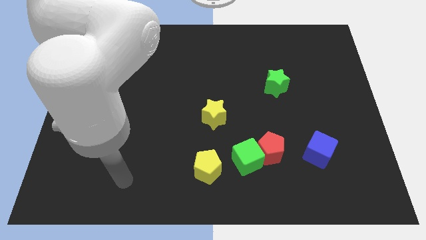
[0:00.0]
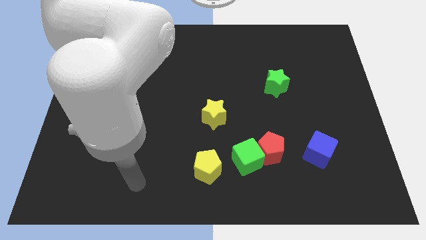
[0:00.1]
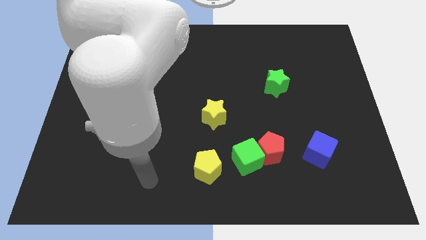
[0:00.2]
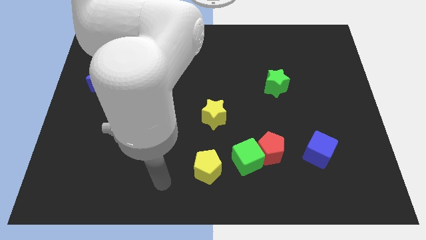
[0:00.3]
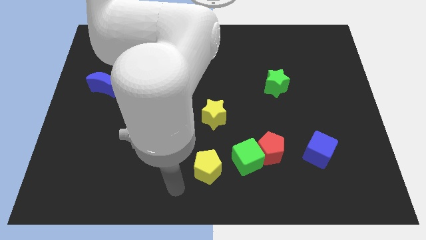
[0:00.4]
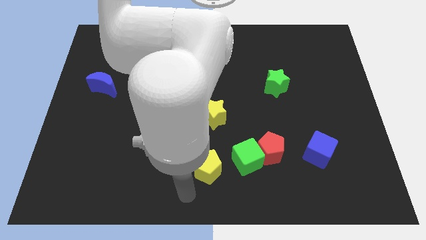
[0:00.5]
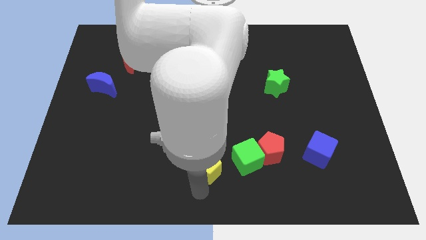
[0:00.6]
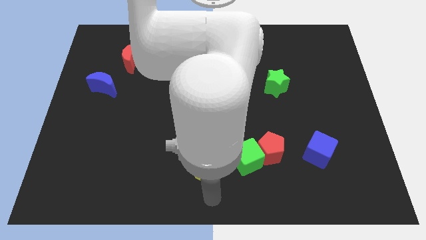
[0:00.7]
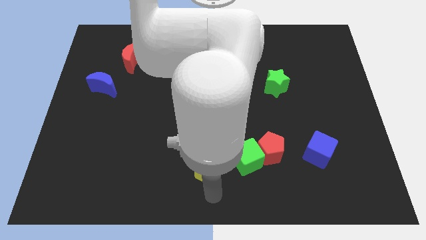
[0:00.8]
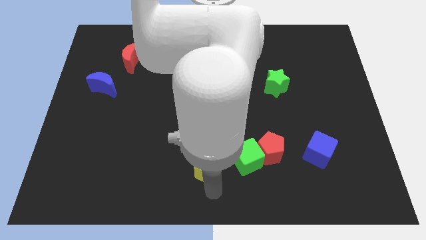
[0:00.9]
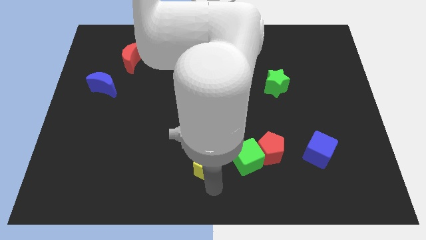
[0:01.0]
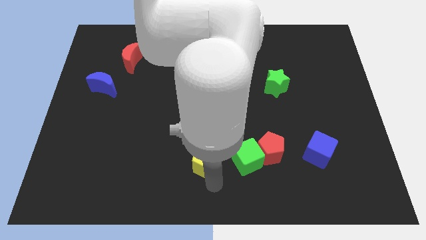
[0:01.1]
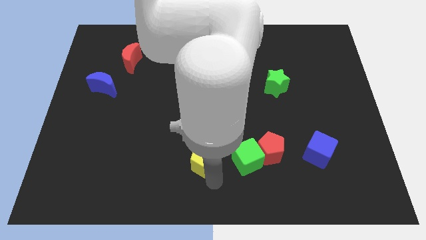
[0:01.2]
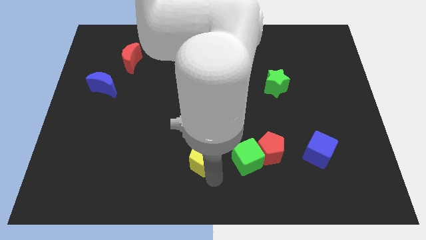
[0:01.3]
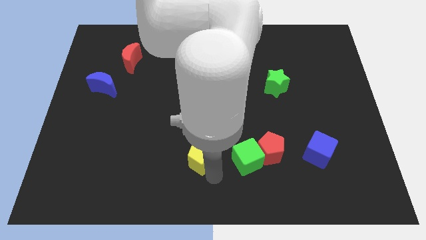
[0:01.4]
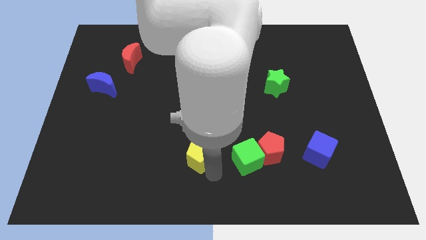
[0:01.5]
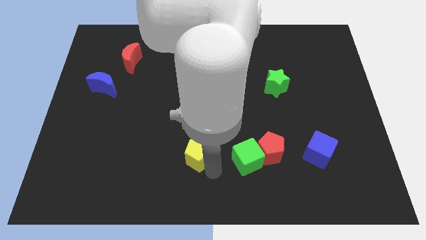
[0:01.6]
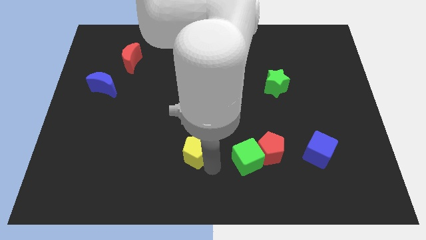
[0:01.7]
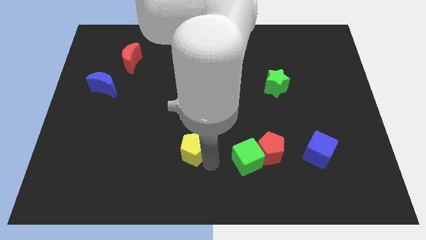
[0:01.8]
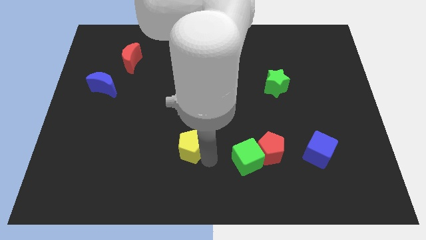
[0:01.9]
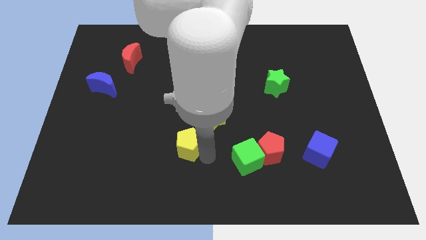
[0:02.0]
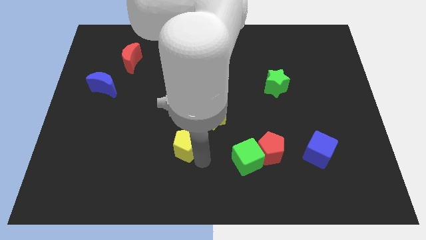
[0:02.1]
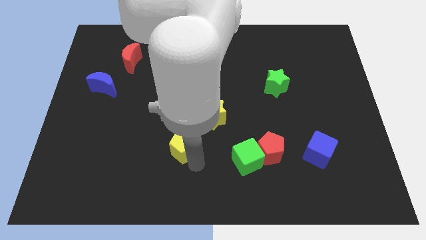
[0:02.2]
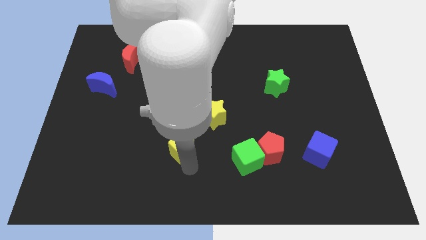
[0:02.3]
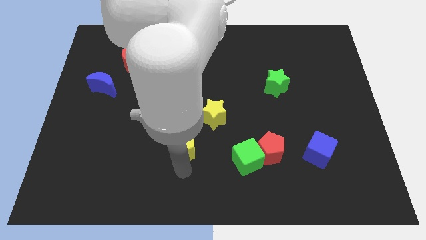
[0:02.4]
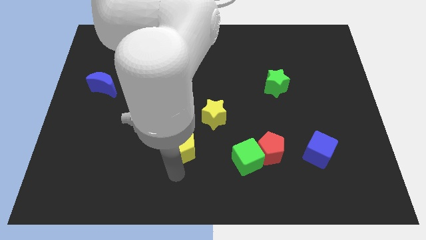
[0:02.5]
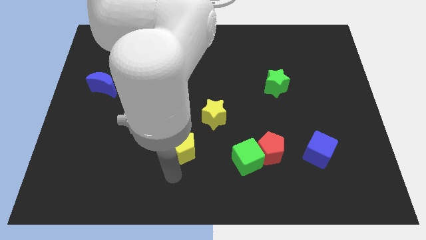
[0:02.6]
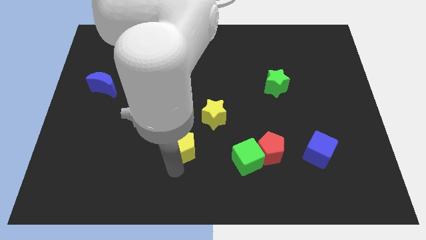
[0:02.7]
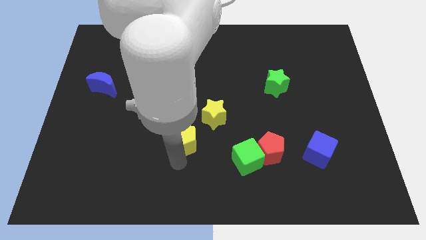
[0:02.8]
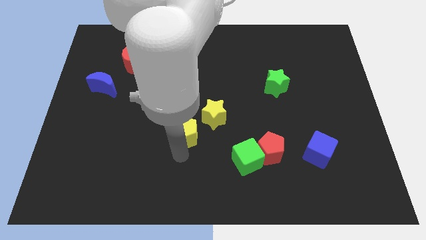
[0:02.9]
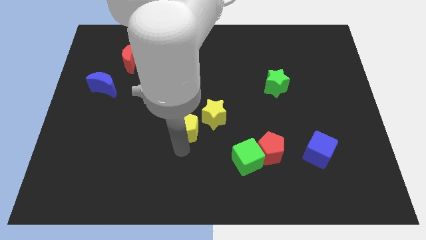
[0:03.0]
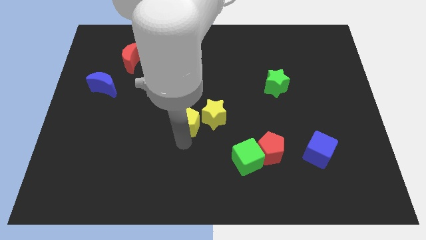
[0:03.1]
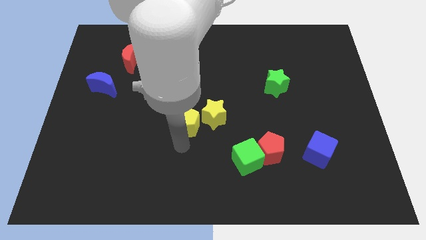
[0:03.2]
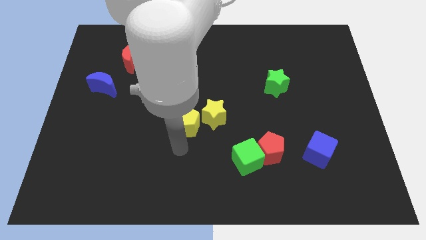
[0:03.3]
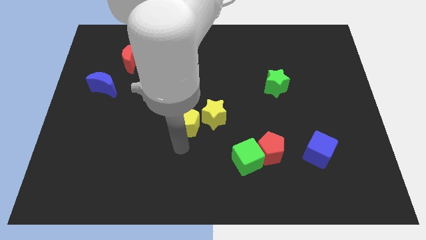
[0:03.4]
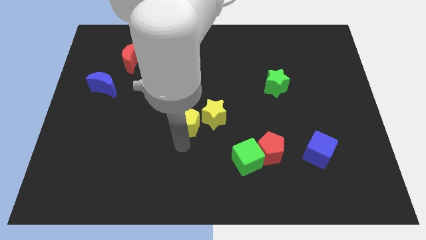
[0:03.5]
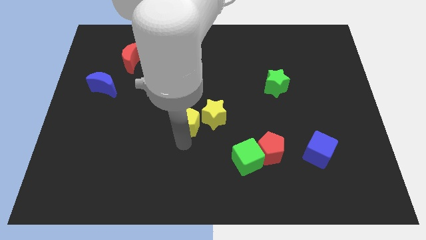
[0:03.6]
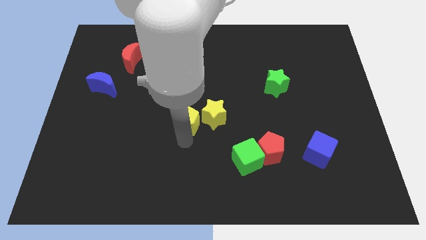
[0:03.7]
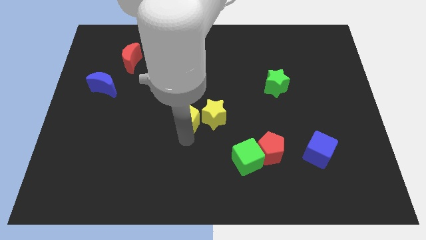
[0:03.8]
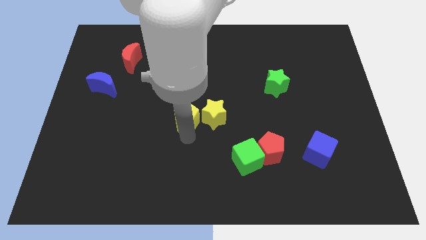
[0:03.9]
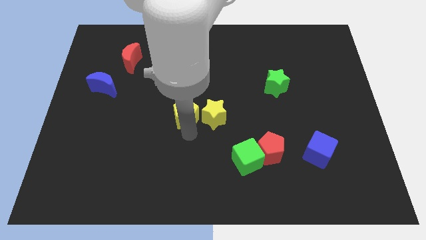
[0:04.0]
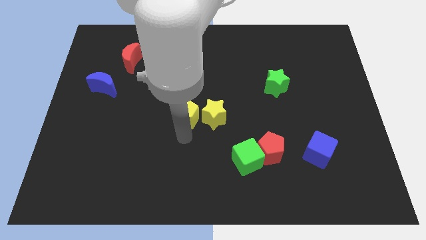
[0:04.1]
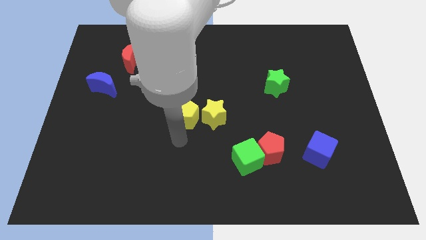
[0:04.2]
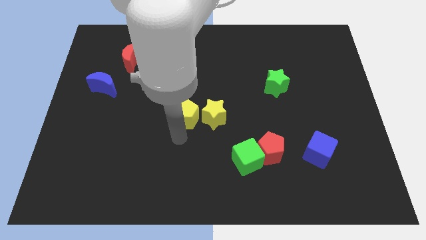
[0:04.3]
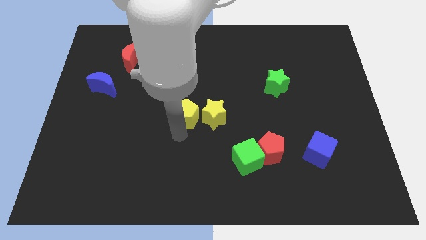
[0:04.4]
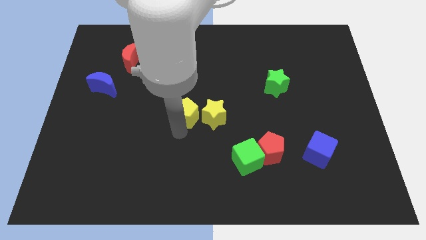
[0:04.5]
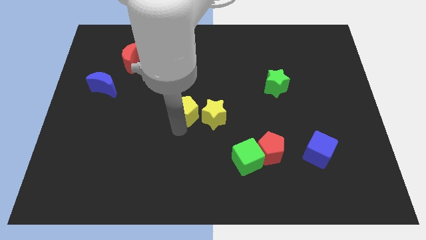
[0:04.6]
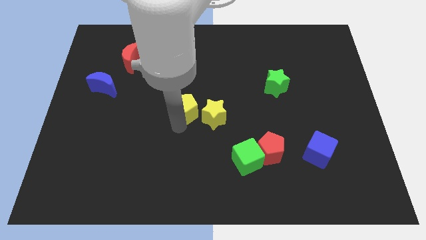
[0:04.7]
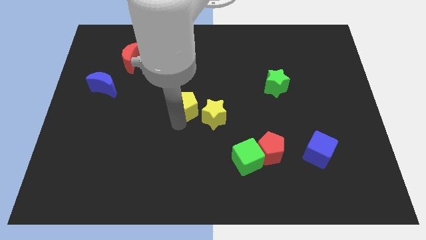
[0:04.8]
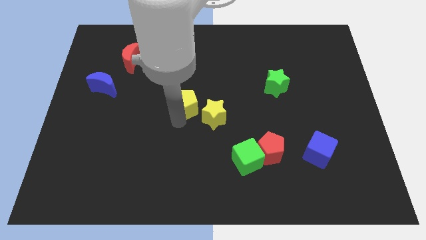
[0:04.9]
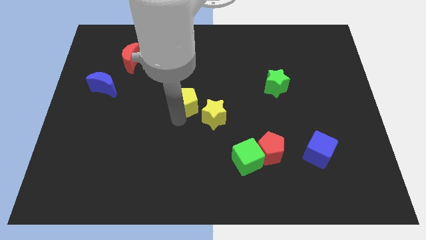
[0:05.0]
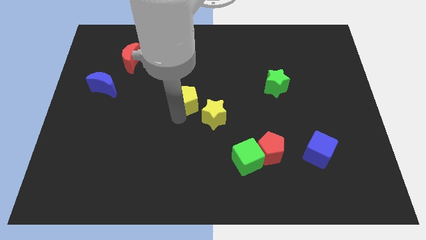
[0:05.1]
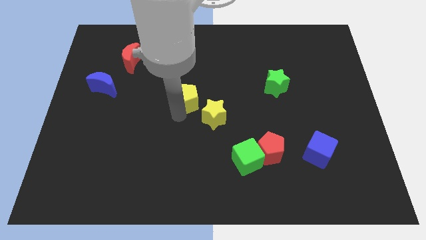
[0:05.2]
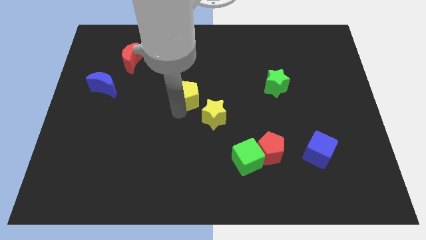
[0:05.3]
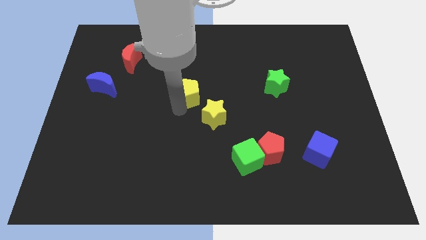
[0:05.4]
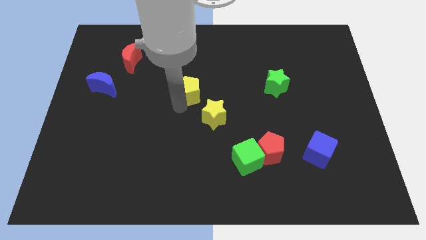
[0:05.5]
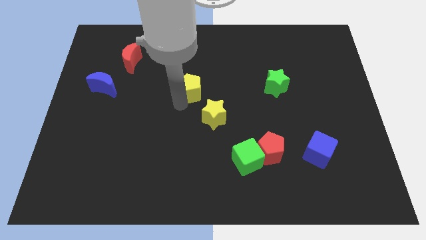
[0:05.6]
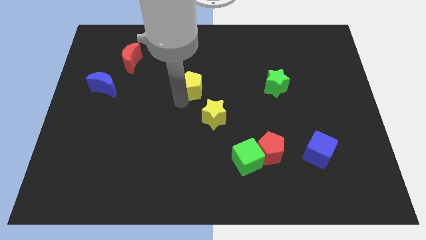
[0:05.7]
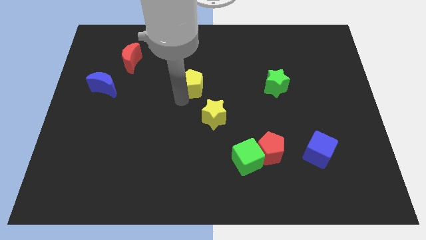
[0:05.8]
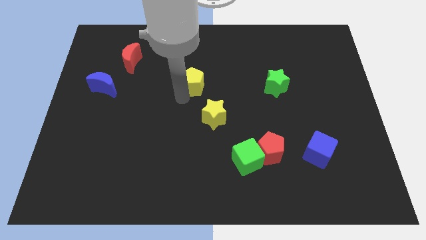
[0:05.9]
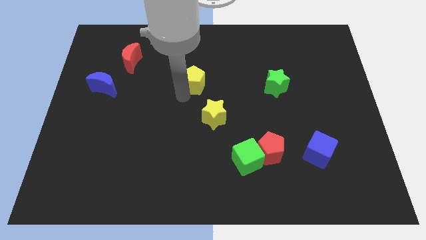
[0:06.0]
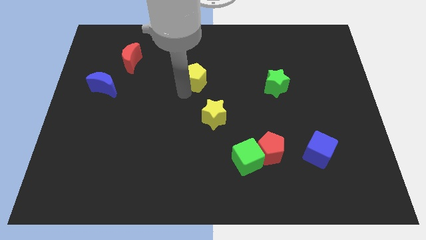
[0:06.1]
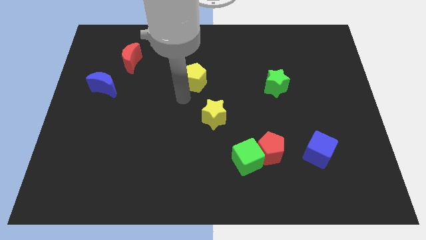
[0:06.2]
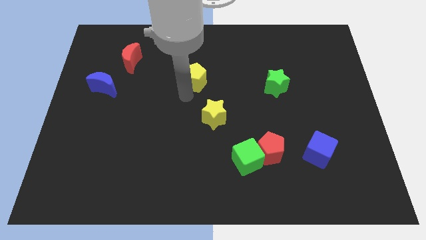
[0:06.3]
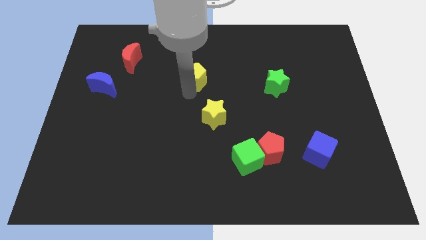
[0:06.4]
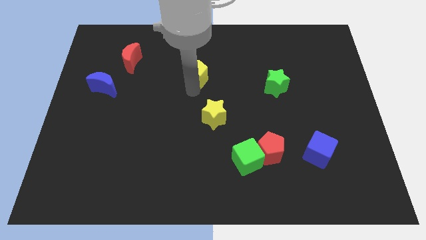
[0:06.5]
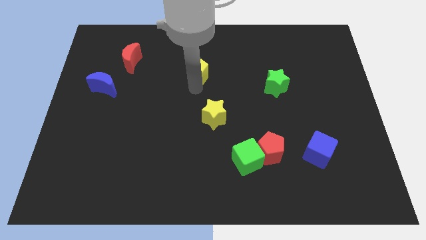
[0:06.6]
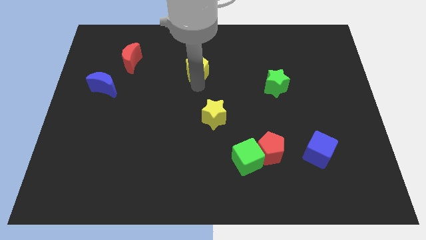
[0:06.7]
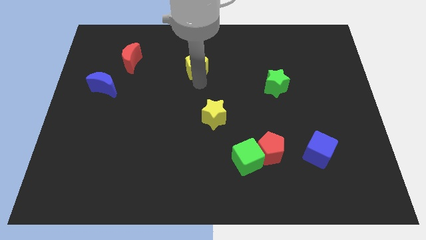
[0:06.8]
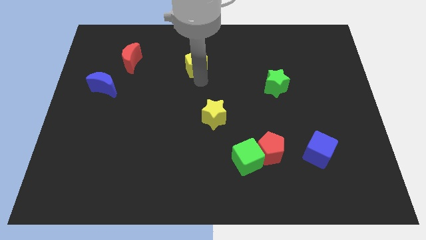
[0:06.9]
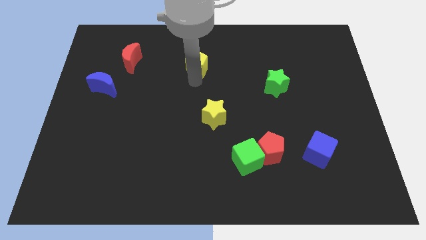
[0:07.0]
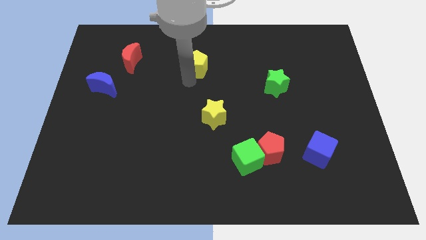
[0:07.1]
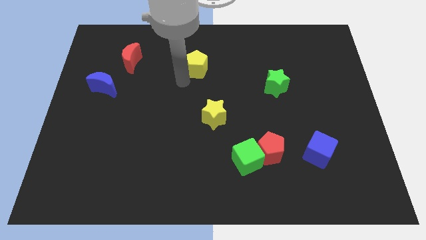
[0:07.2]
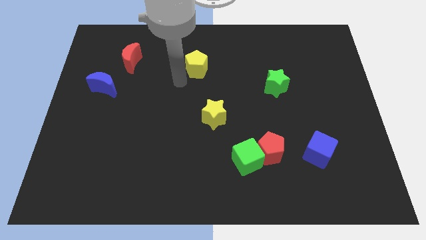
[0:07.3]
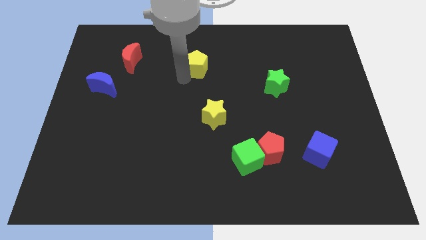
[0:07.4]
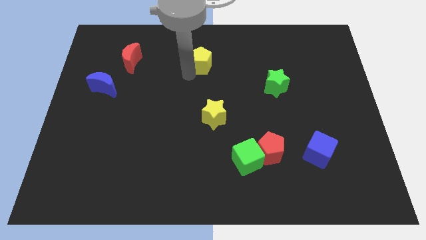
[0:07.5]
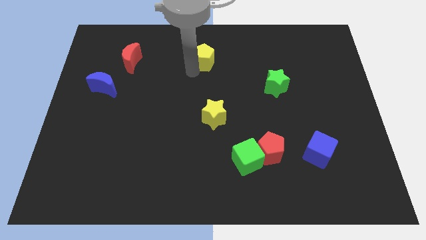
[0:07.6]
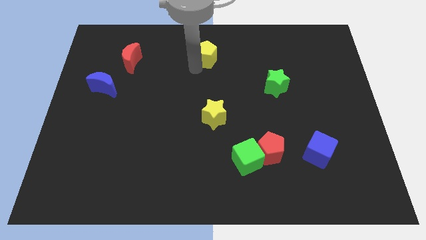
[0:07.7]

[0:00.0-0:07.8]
push the yellow pentagon to the top

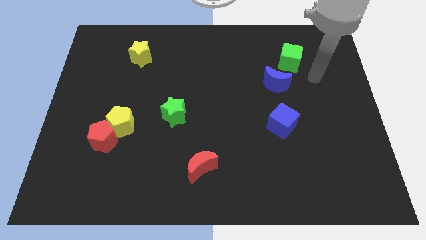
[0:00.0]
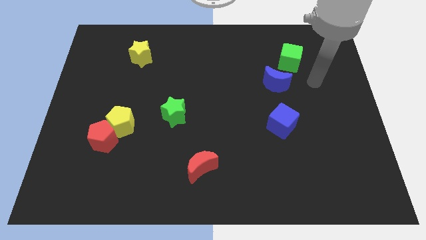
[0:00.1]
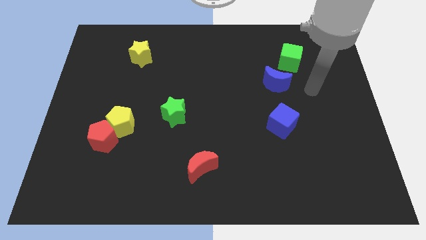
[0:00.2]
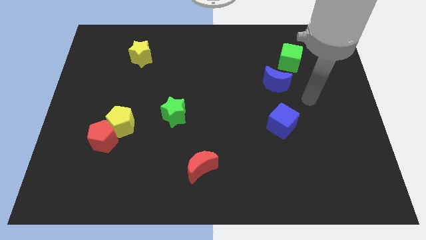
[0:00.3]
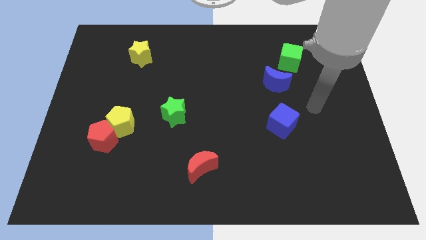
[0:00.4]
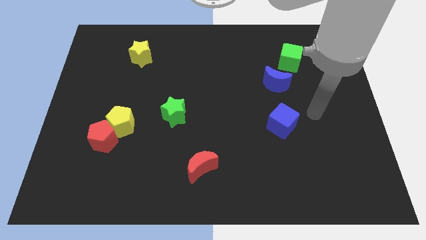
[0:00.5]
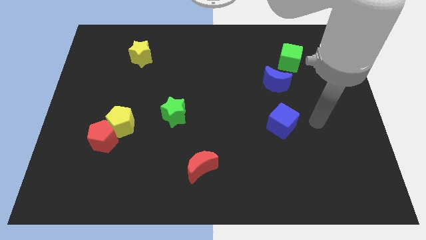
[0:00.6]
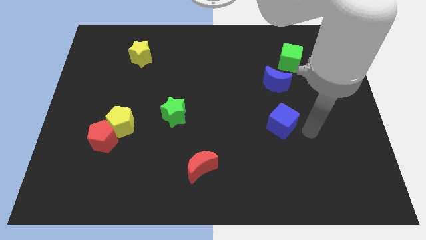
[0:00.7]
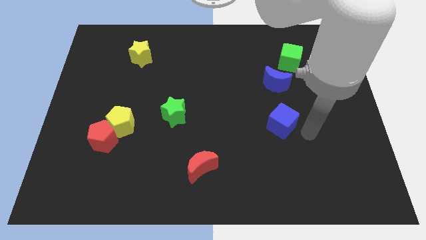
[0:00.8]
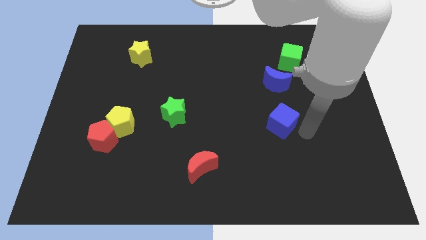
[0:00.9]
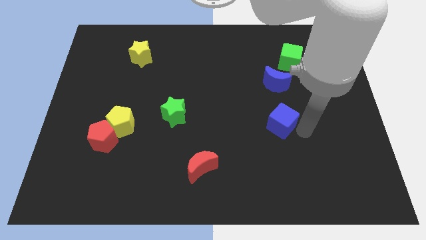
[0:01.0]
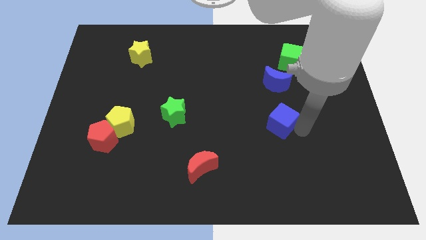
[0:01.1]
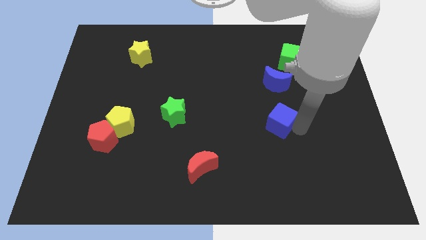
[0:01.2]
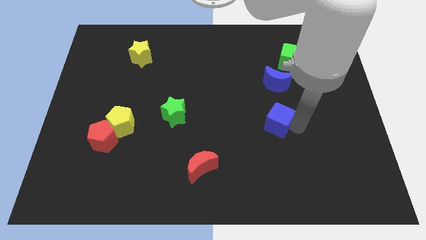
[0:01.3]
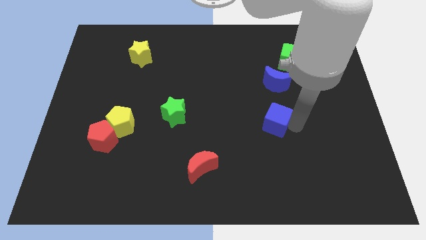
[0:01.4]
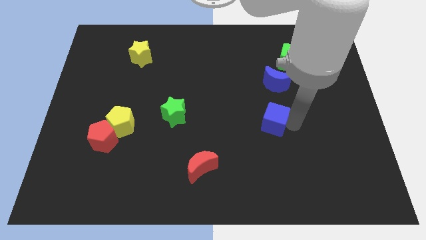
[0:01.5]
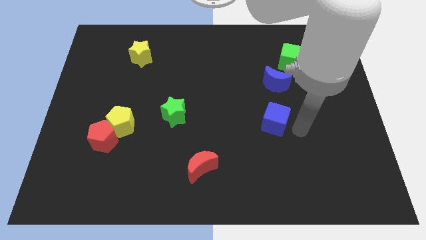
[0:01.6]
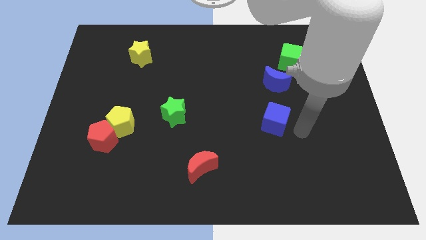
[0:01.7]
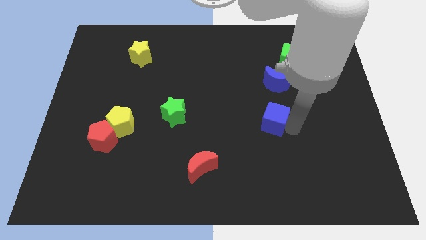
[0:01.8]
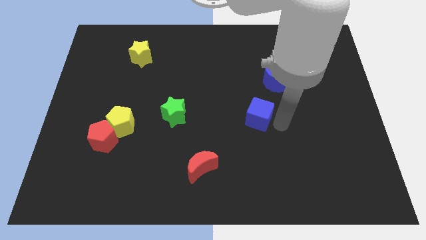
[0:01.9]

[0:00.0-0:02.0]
move the blue cube to the middle of the board
